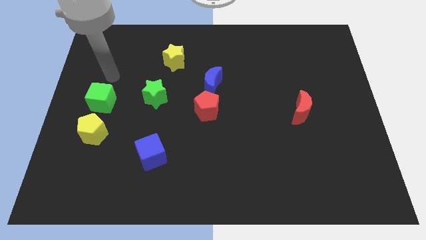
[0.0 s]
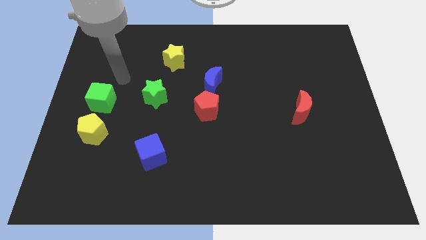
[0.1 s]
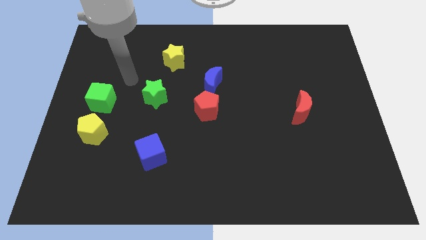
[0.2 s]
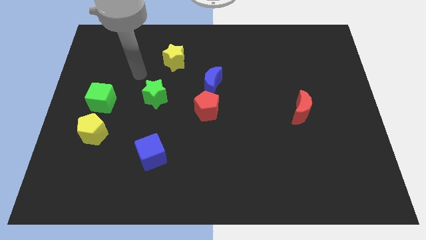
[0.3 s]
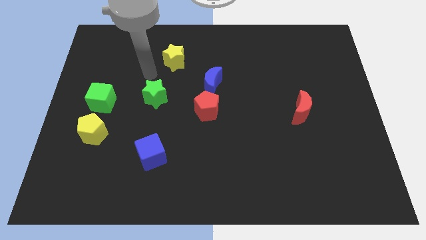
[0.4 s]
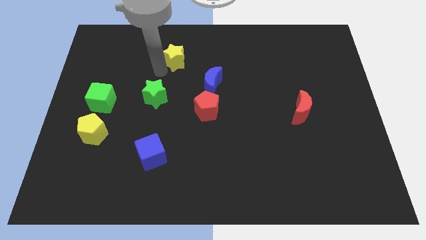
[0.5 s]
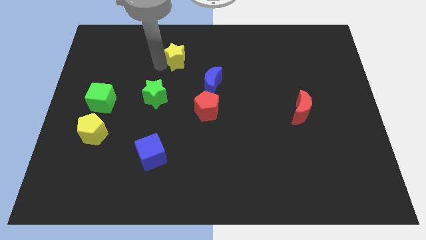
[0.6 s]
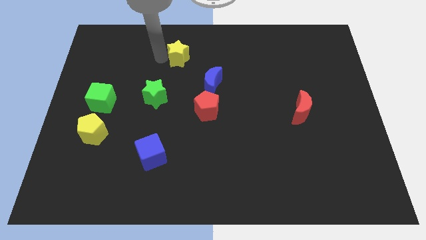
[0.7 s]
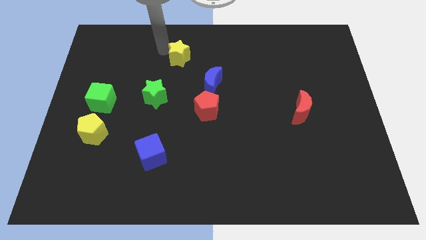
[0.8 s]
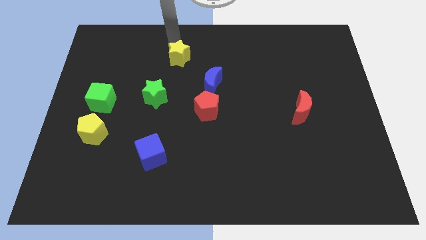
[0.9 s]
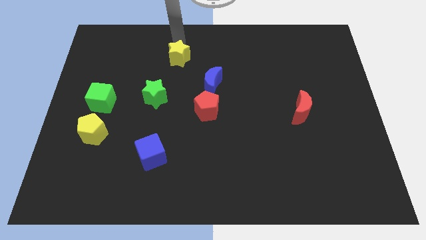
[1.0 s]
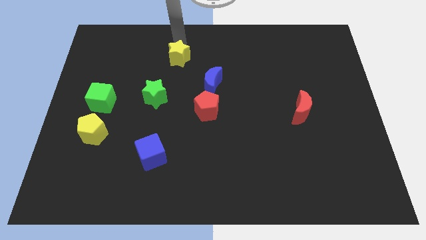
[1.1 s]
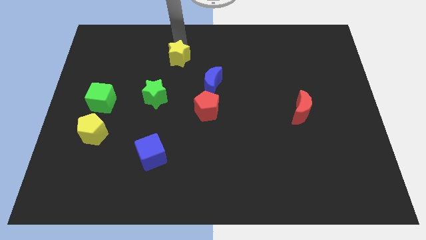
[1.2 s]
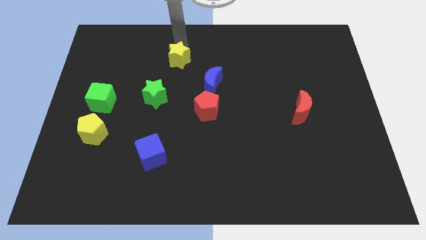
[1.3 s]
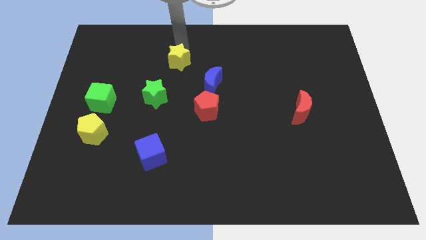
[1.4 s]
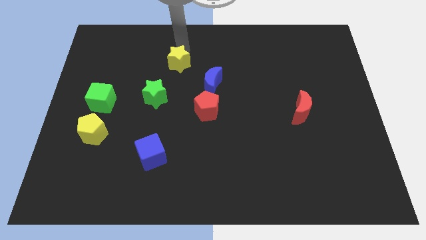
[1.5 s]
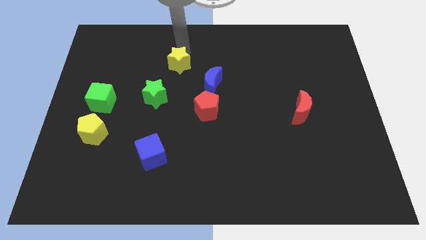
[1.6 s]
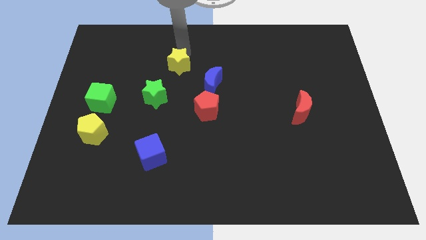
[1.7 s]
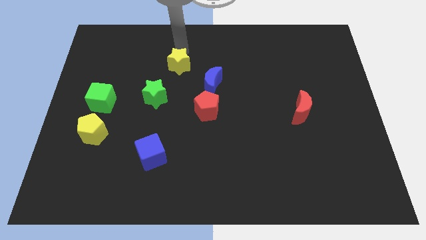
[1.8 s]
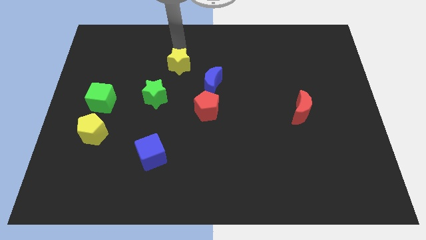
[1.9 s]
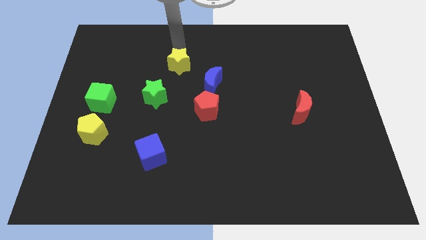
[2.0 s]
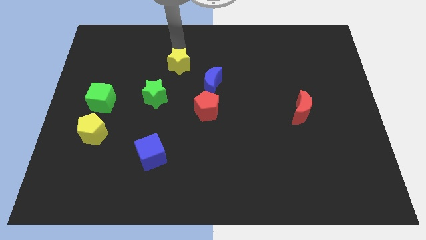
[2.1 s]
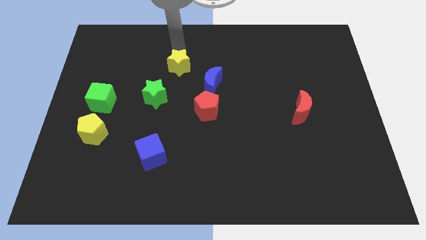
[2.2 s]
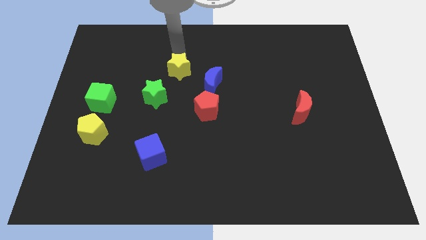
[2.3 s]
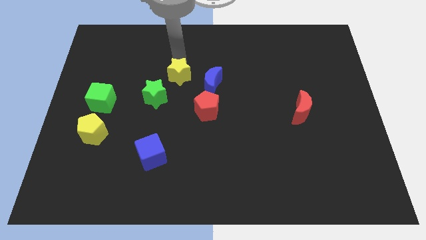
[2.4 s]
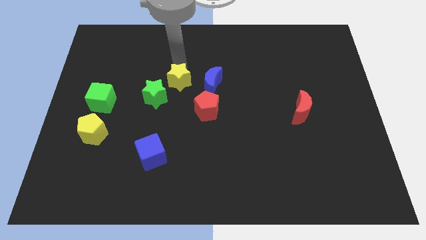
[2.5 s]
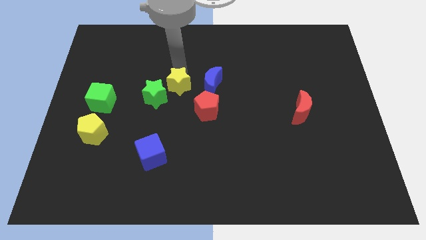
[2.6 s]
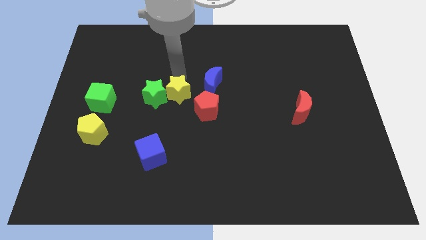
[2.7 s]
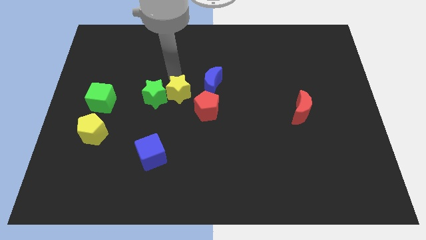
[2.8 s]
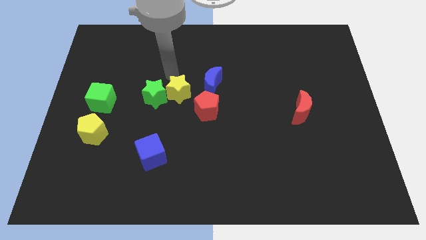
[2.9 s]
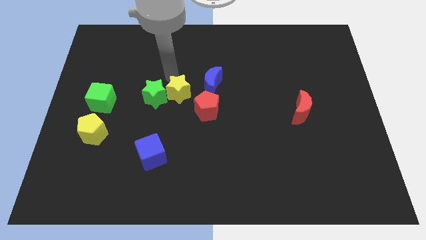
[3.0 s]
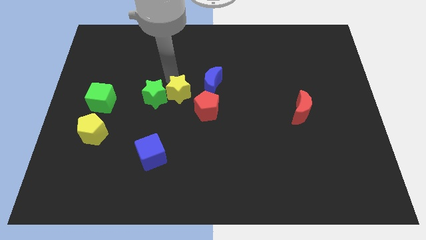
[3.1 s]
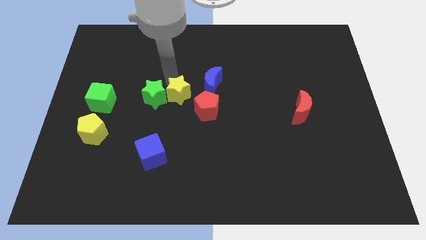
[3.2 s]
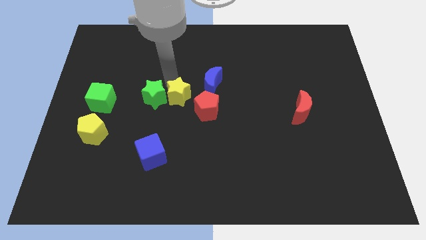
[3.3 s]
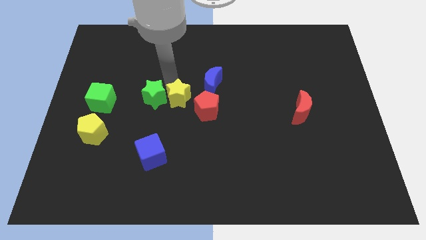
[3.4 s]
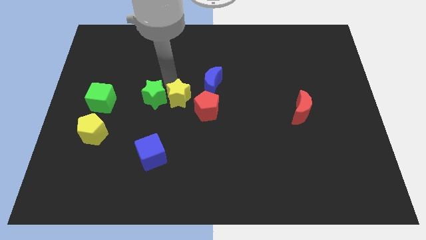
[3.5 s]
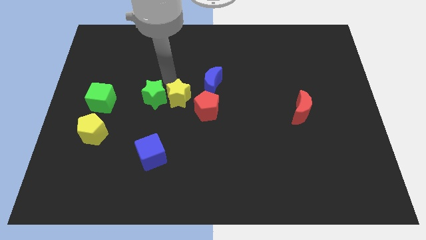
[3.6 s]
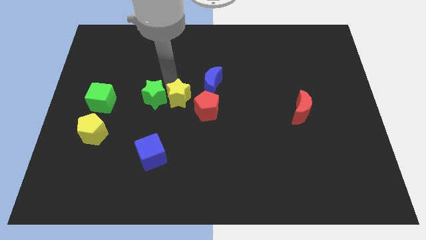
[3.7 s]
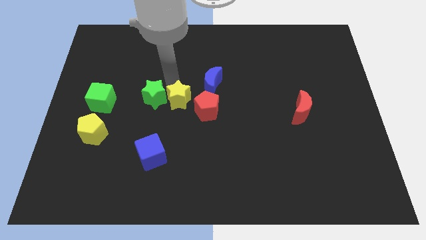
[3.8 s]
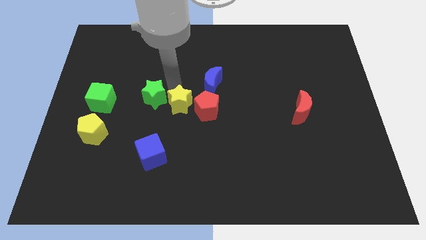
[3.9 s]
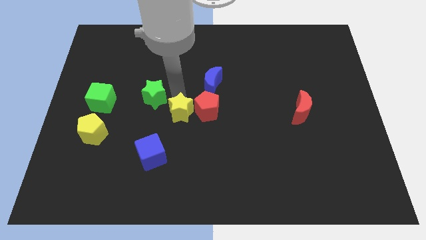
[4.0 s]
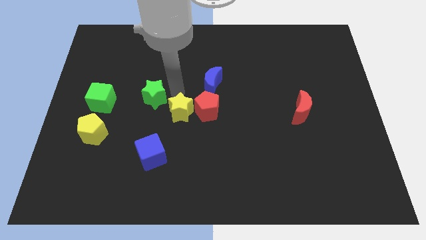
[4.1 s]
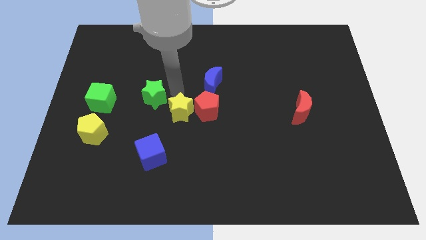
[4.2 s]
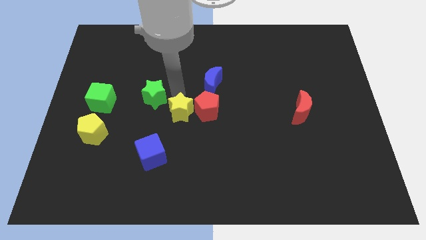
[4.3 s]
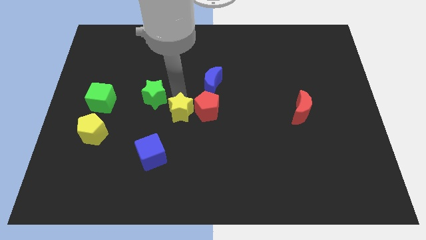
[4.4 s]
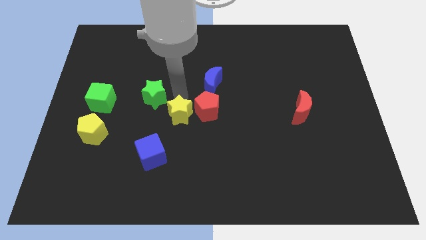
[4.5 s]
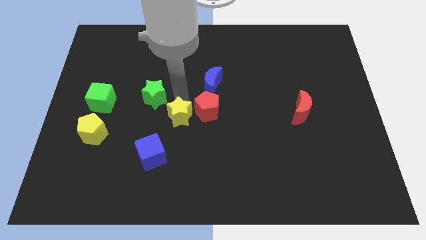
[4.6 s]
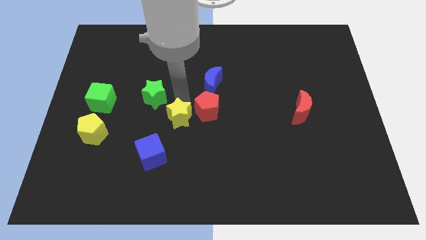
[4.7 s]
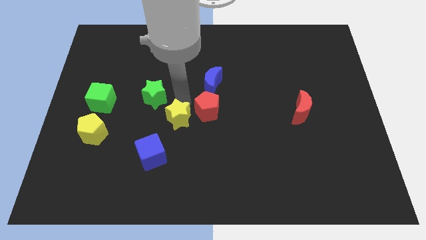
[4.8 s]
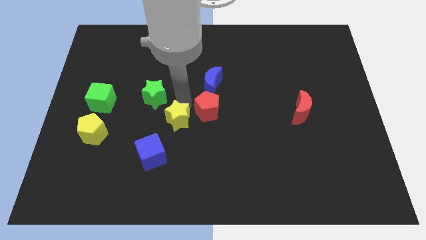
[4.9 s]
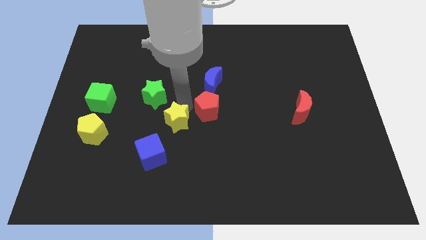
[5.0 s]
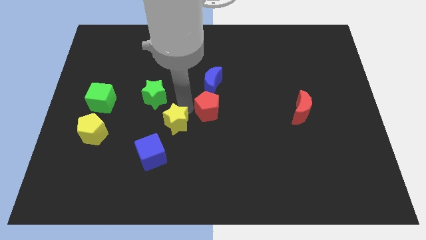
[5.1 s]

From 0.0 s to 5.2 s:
move the yellow star downwards

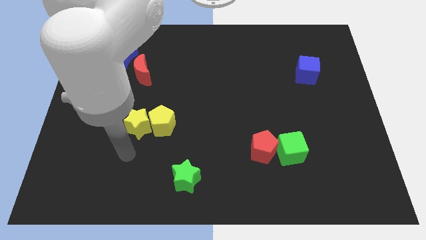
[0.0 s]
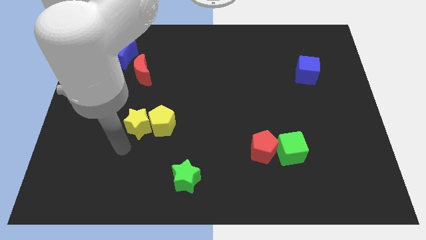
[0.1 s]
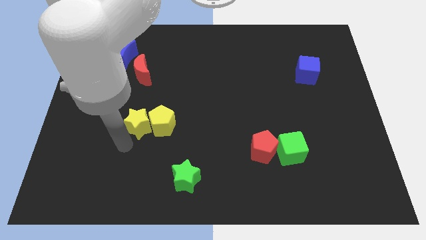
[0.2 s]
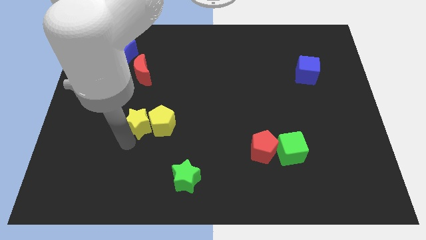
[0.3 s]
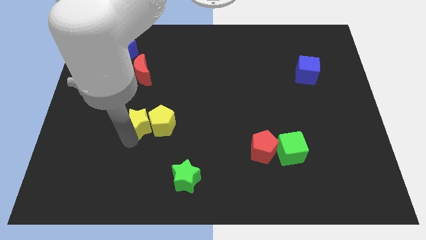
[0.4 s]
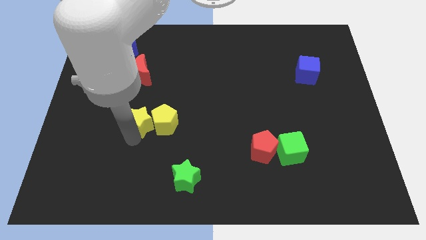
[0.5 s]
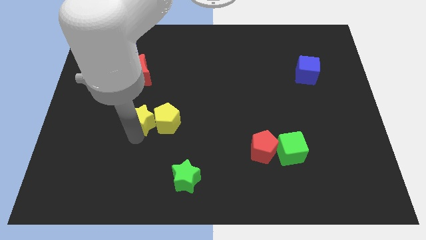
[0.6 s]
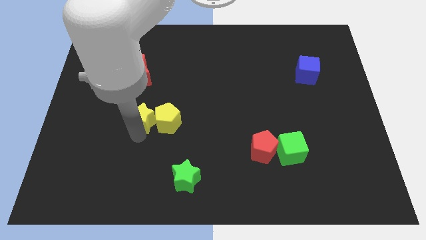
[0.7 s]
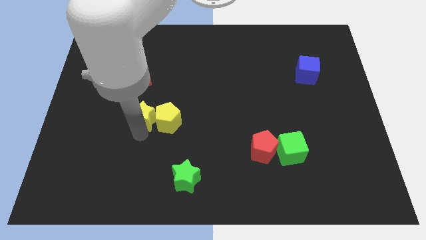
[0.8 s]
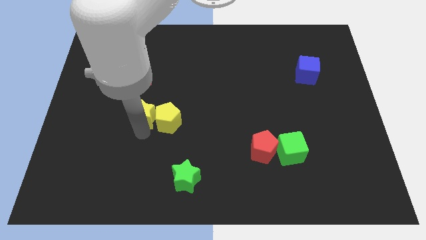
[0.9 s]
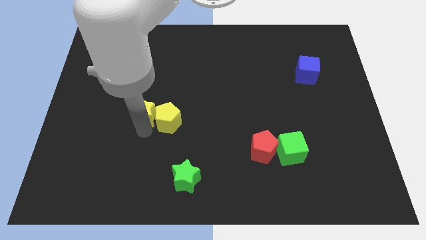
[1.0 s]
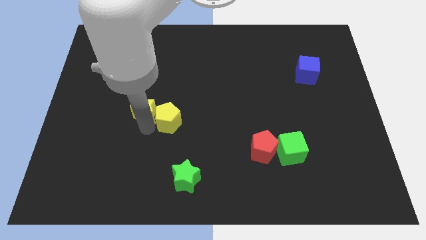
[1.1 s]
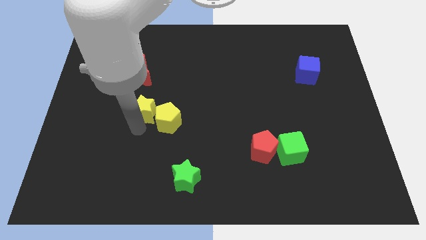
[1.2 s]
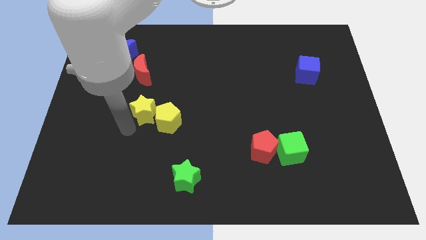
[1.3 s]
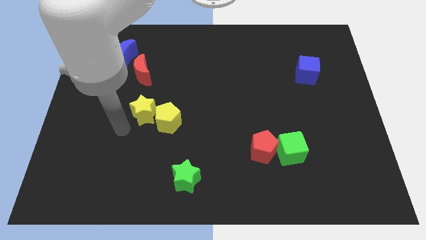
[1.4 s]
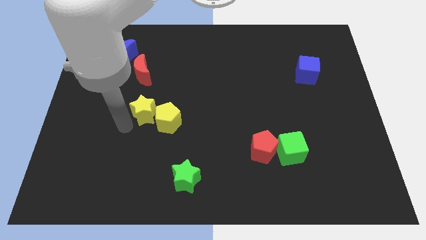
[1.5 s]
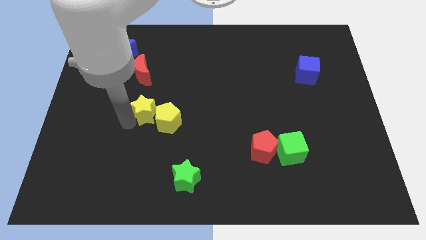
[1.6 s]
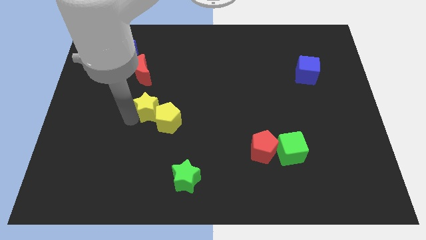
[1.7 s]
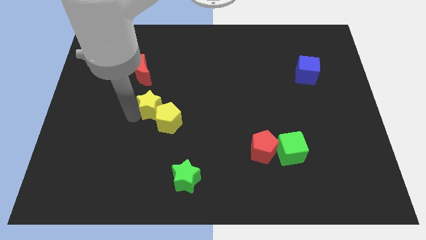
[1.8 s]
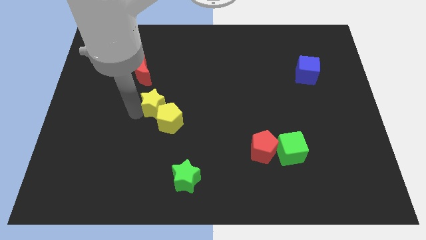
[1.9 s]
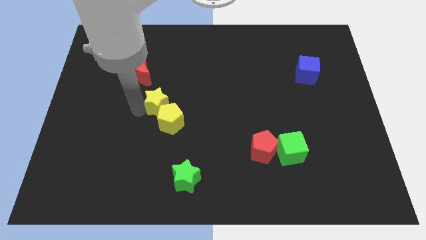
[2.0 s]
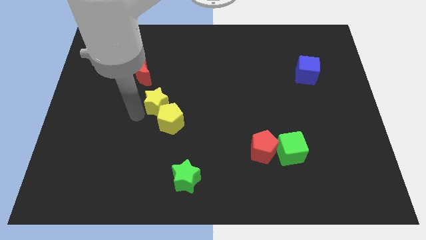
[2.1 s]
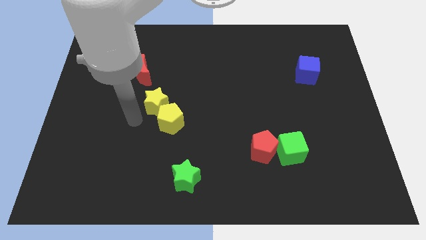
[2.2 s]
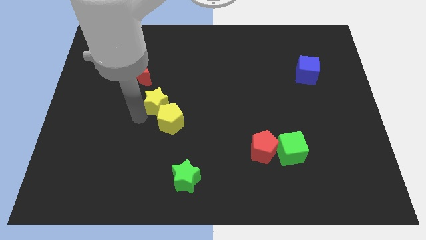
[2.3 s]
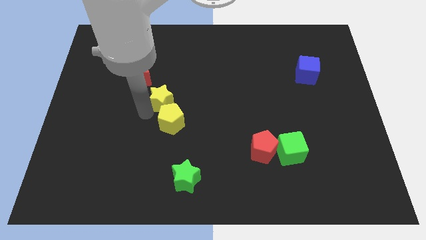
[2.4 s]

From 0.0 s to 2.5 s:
move the yellow star diagonally upwards and right somewhat

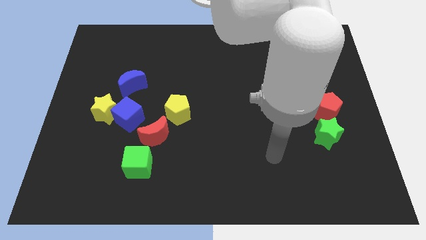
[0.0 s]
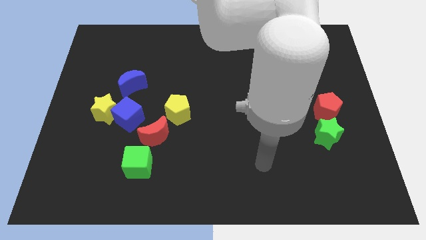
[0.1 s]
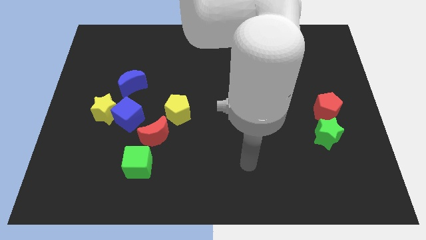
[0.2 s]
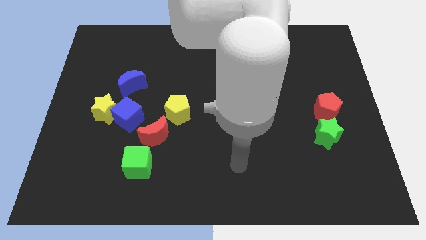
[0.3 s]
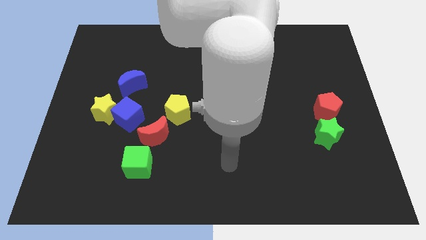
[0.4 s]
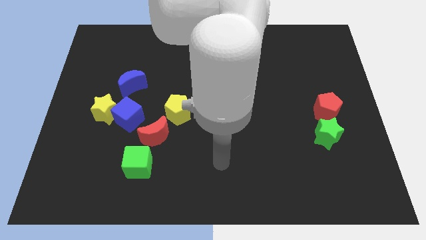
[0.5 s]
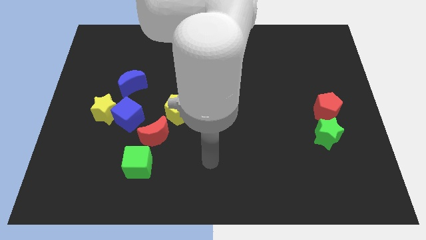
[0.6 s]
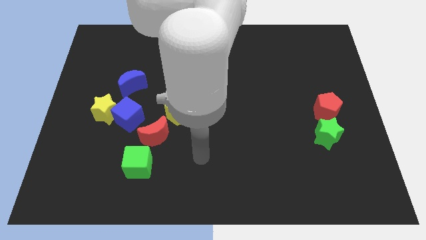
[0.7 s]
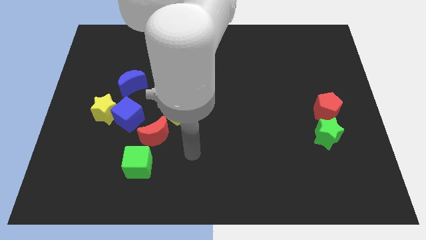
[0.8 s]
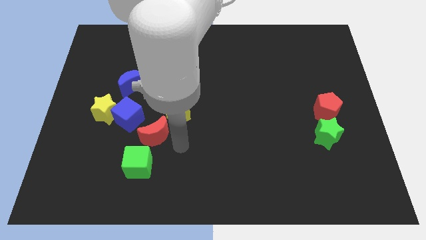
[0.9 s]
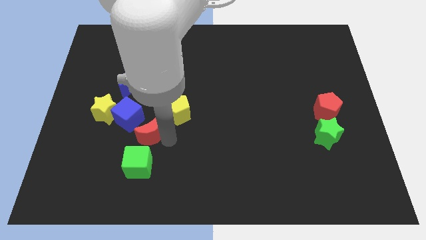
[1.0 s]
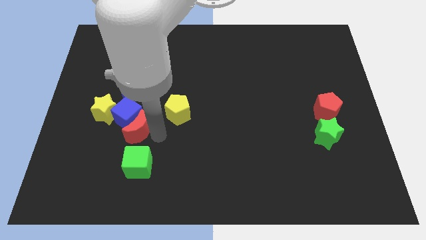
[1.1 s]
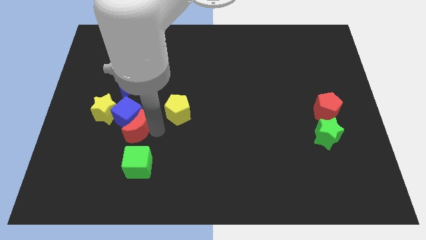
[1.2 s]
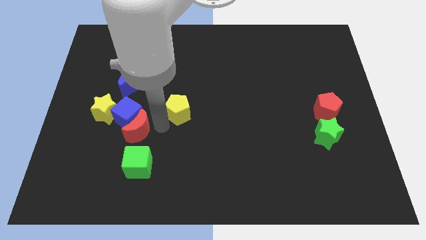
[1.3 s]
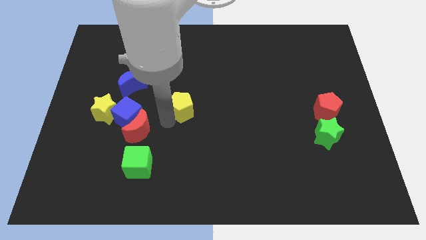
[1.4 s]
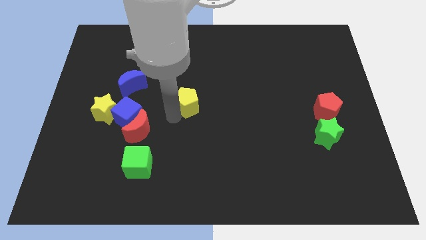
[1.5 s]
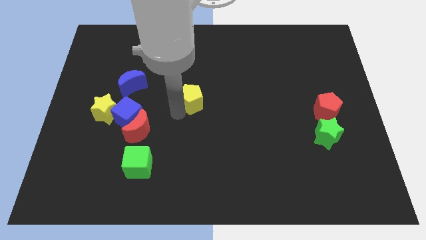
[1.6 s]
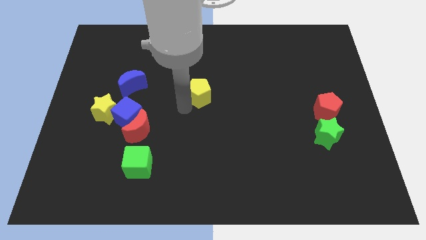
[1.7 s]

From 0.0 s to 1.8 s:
move the yellow pentagon a little bit diagonally upwards and to the right
